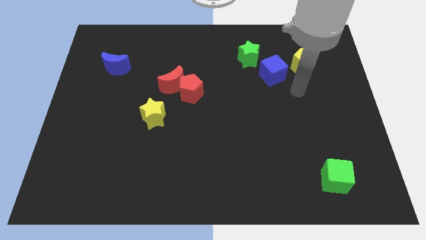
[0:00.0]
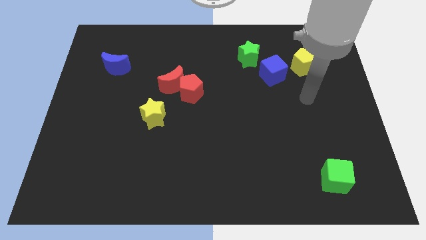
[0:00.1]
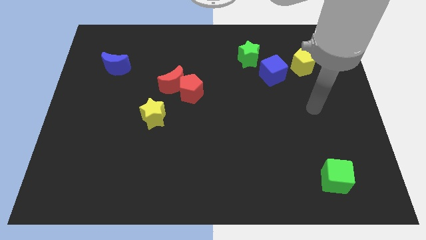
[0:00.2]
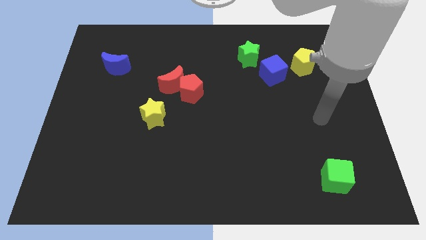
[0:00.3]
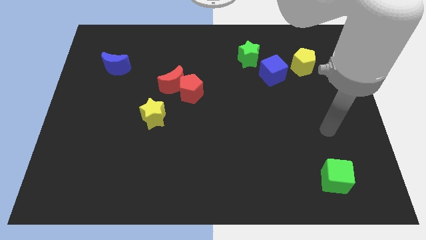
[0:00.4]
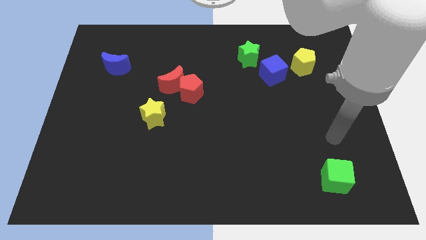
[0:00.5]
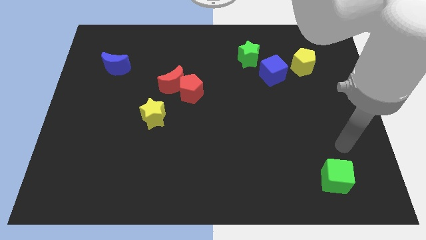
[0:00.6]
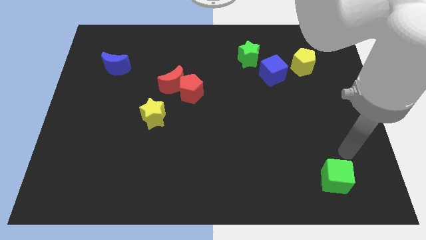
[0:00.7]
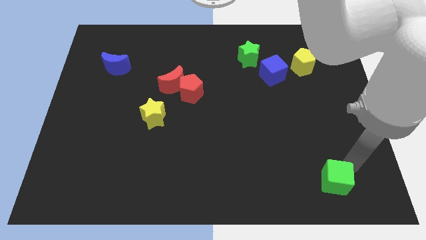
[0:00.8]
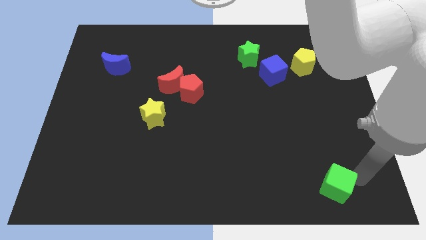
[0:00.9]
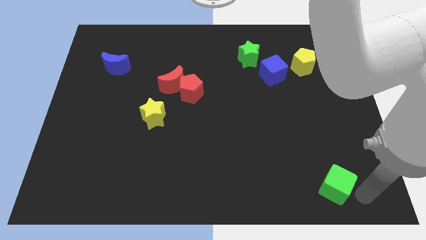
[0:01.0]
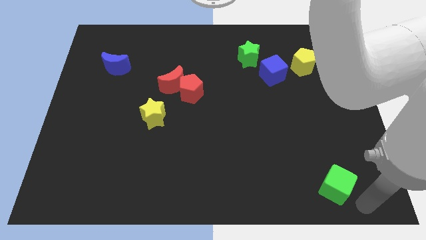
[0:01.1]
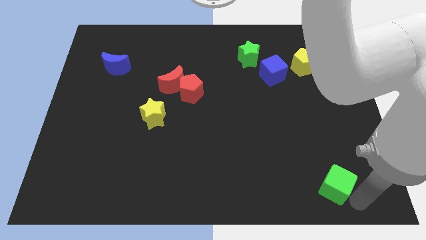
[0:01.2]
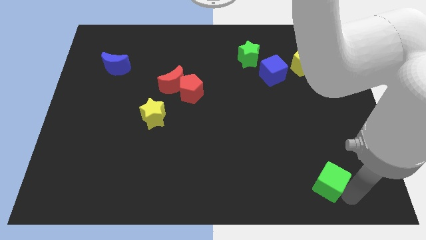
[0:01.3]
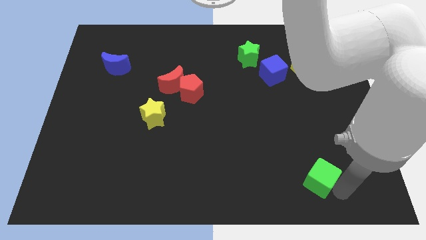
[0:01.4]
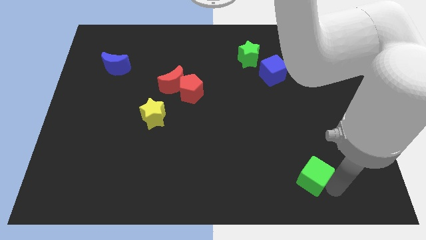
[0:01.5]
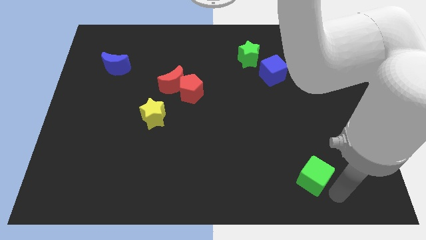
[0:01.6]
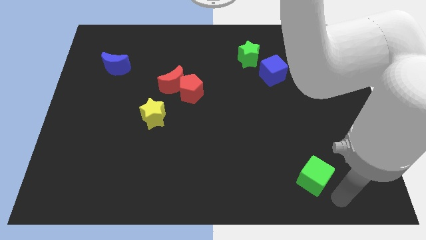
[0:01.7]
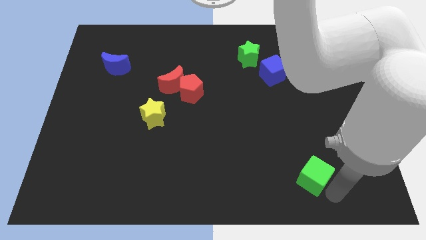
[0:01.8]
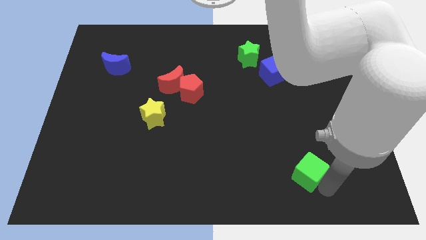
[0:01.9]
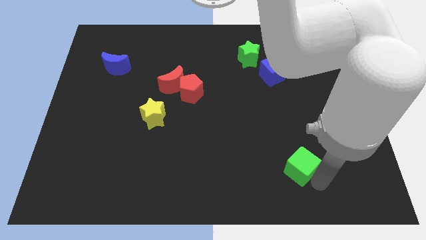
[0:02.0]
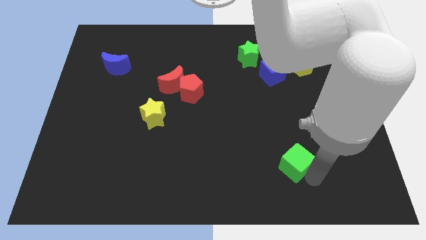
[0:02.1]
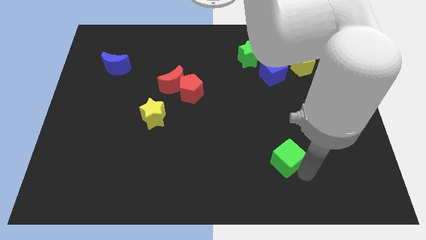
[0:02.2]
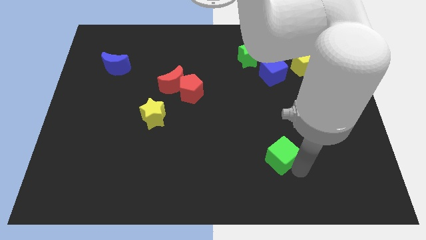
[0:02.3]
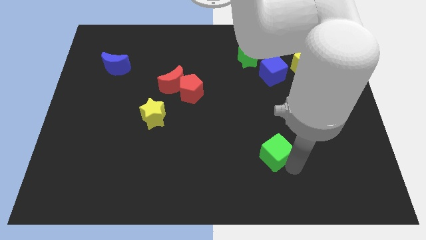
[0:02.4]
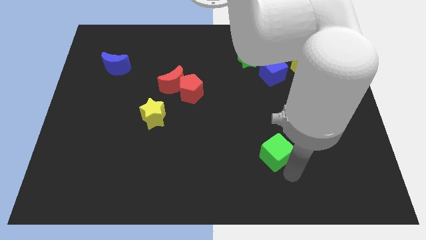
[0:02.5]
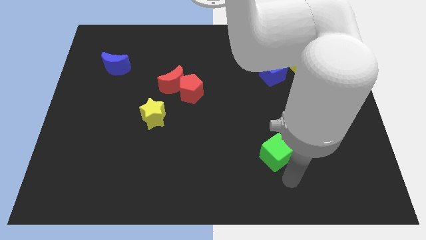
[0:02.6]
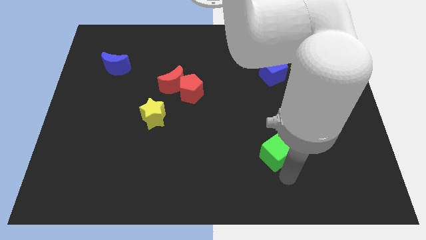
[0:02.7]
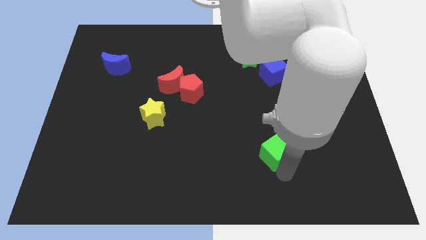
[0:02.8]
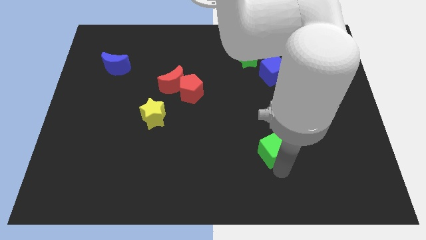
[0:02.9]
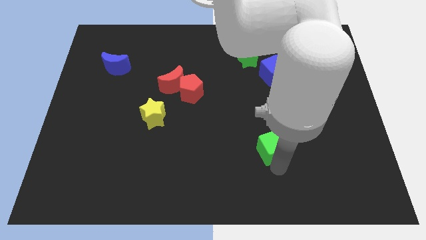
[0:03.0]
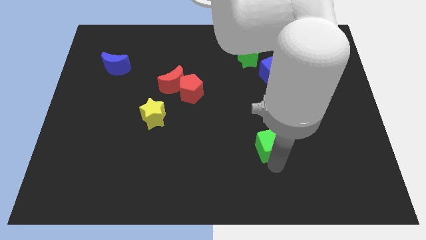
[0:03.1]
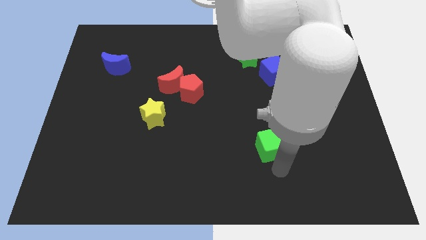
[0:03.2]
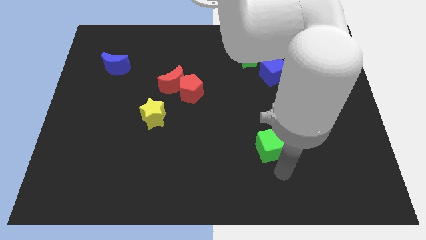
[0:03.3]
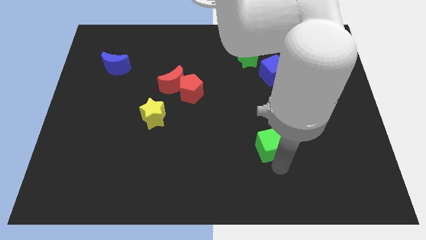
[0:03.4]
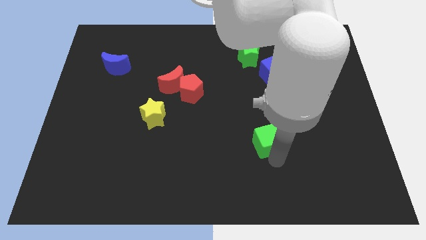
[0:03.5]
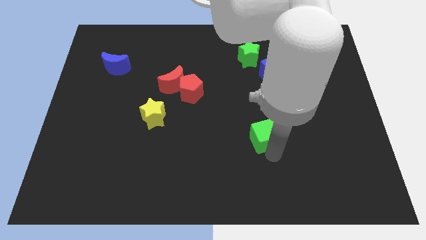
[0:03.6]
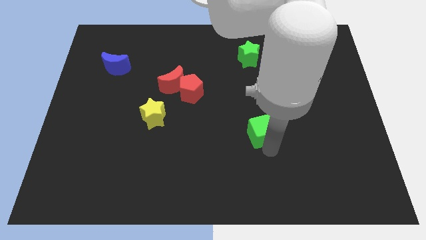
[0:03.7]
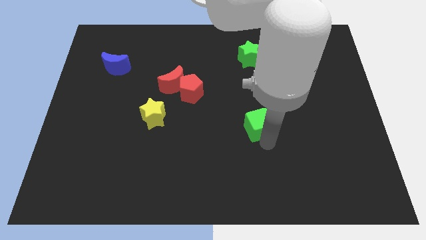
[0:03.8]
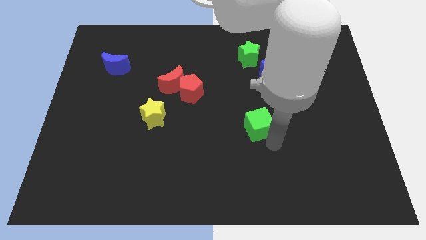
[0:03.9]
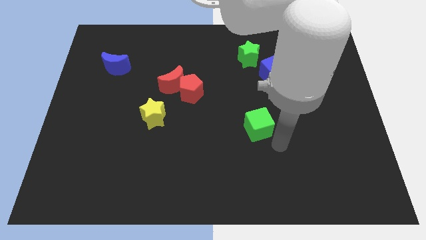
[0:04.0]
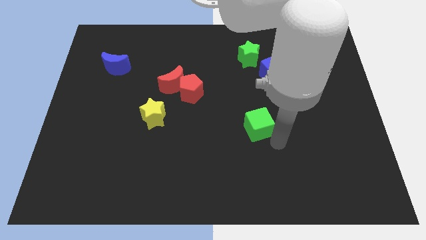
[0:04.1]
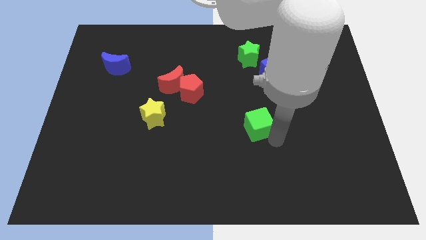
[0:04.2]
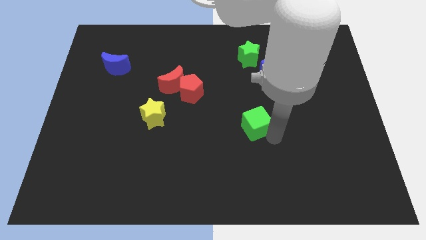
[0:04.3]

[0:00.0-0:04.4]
slide the green cube up and to the left

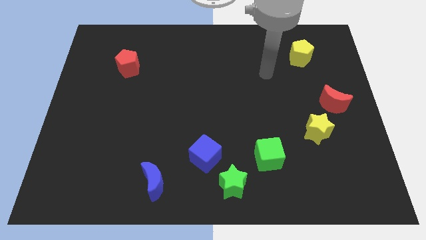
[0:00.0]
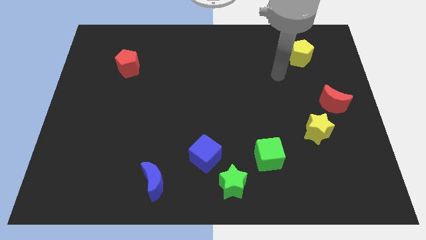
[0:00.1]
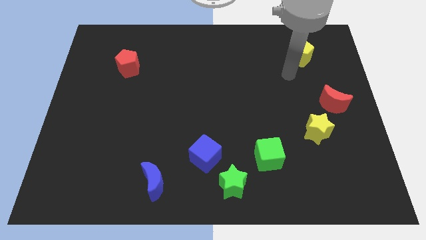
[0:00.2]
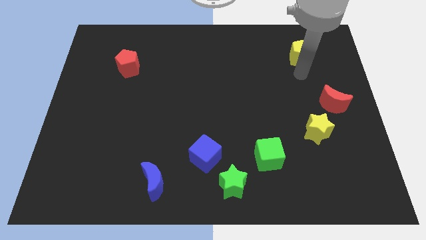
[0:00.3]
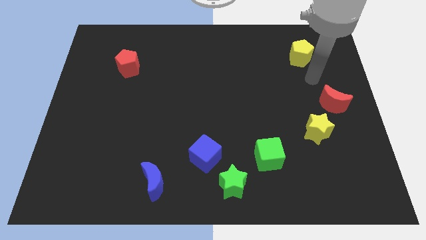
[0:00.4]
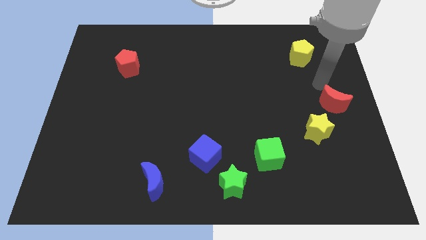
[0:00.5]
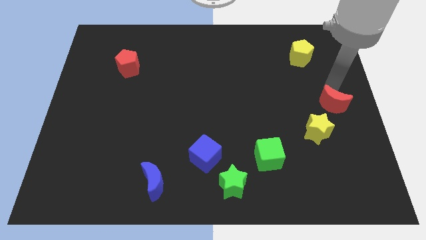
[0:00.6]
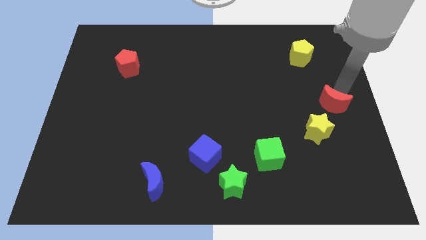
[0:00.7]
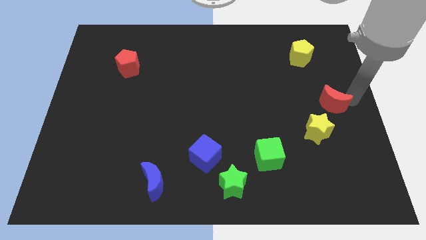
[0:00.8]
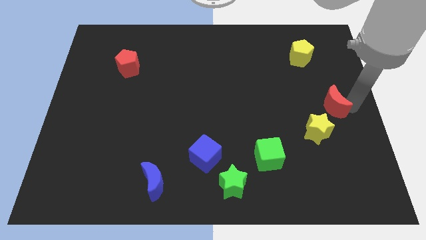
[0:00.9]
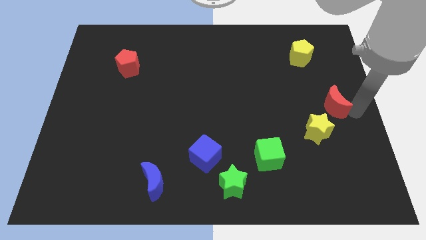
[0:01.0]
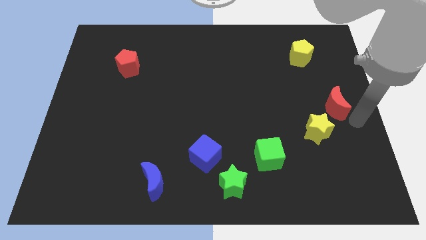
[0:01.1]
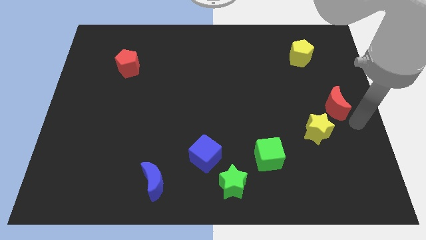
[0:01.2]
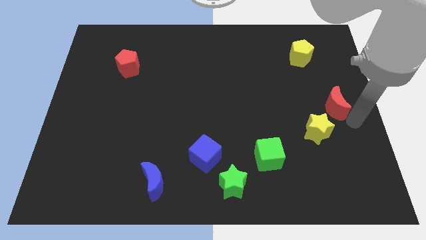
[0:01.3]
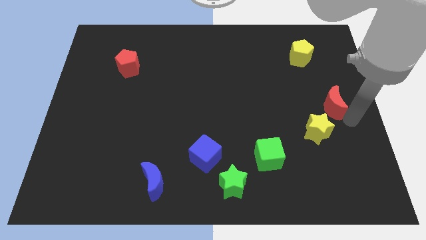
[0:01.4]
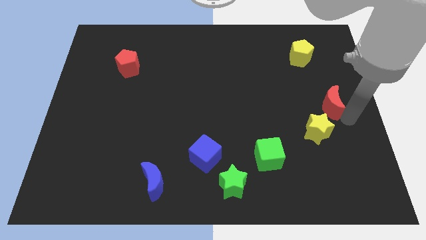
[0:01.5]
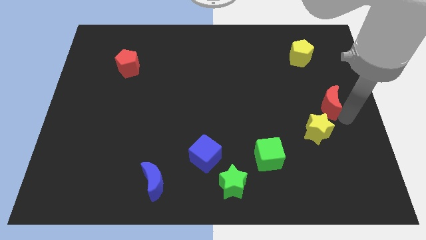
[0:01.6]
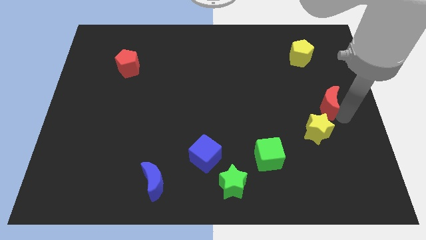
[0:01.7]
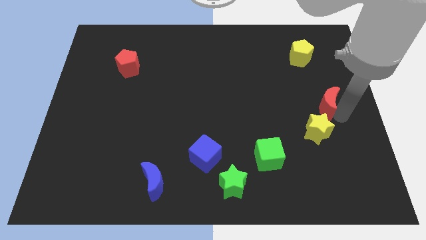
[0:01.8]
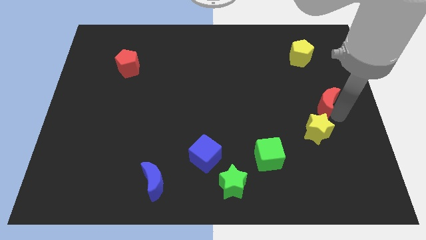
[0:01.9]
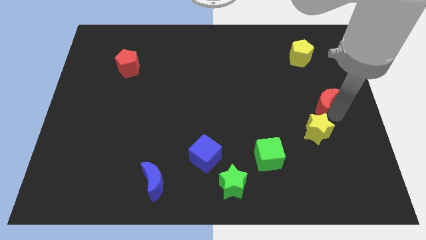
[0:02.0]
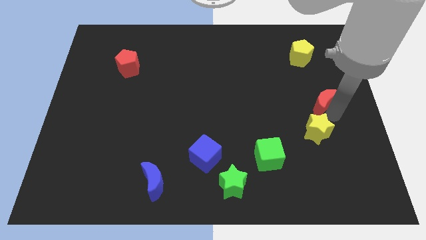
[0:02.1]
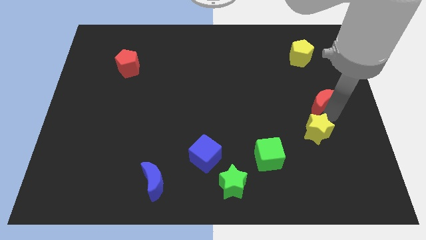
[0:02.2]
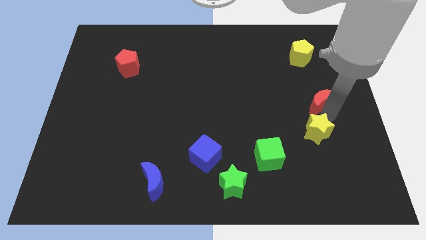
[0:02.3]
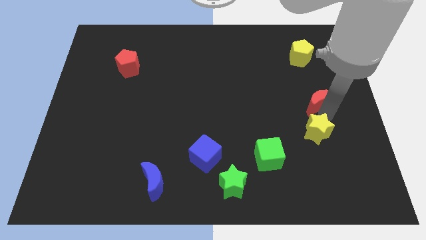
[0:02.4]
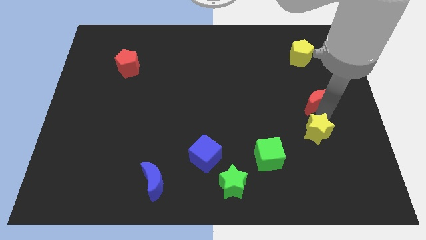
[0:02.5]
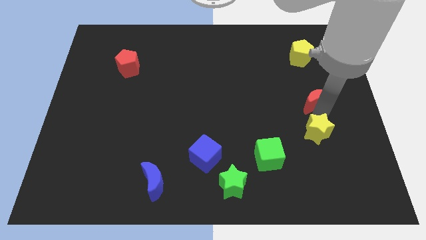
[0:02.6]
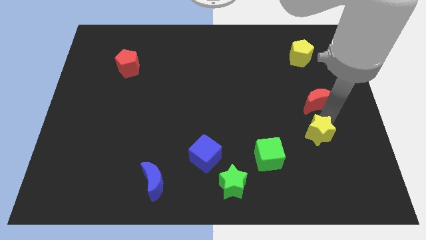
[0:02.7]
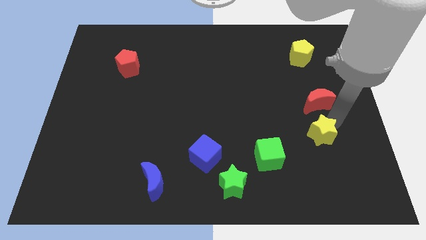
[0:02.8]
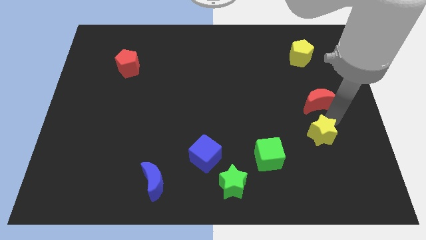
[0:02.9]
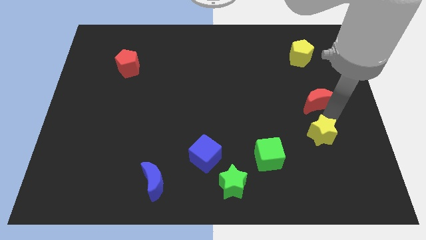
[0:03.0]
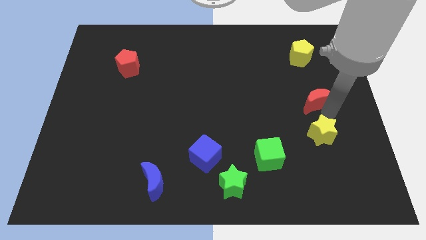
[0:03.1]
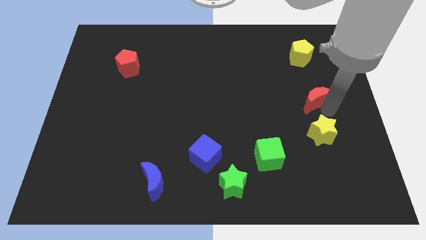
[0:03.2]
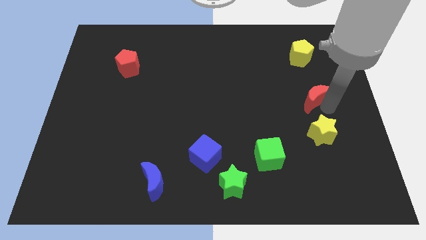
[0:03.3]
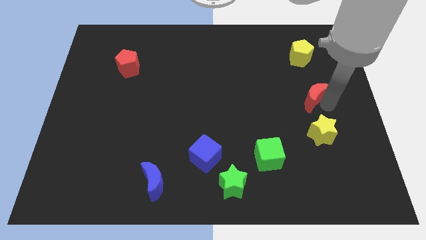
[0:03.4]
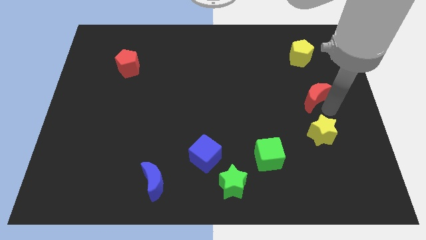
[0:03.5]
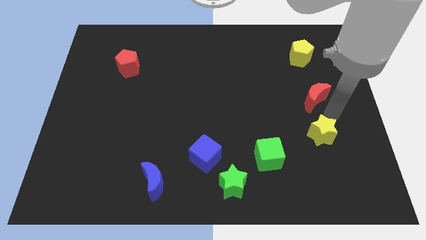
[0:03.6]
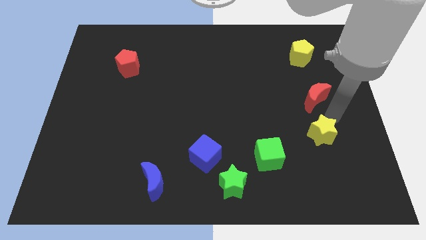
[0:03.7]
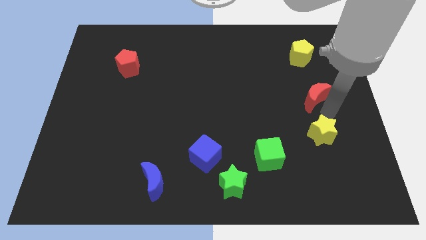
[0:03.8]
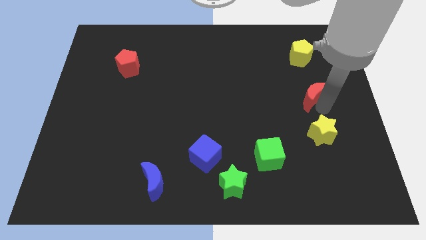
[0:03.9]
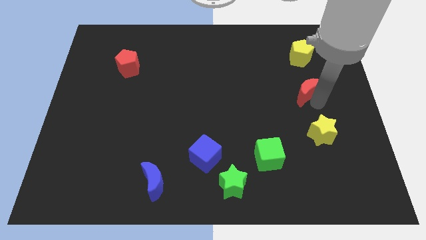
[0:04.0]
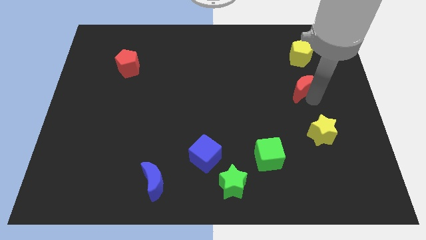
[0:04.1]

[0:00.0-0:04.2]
push the red moon diagonally up and left somewhat
